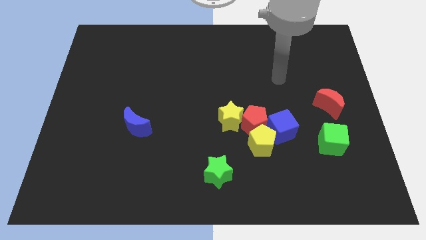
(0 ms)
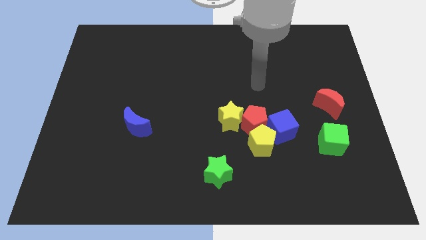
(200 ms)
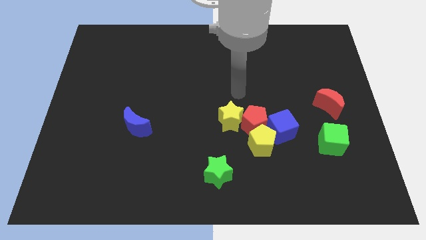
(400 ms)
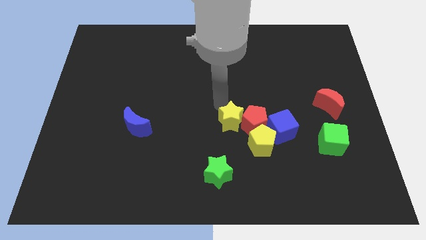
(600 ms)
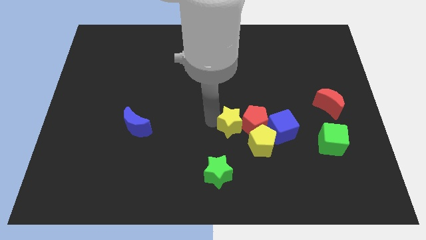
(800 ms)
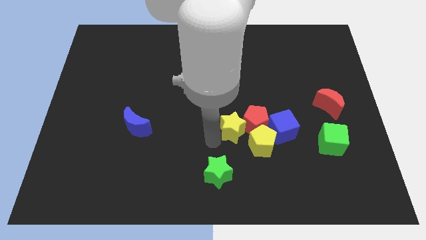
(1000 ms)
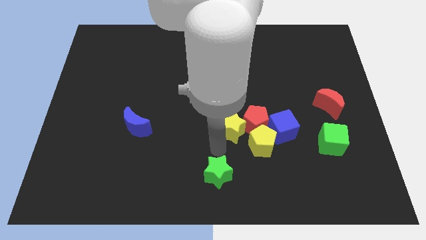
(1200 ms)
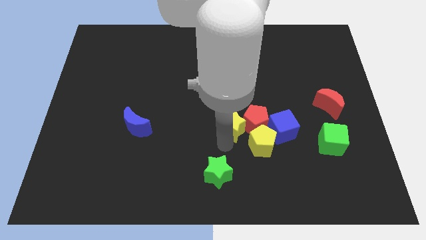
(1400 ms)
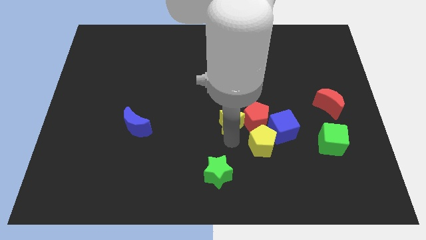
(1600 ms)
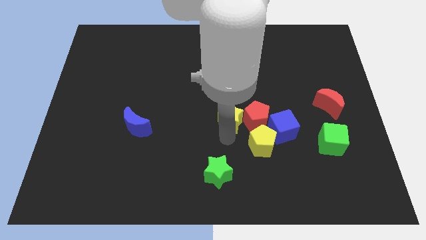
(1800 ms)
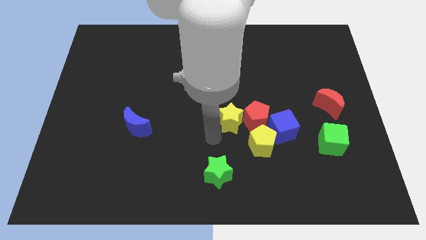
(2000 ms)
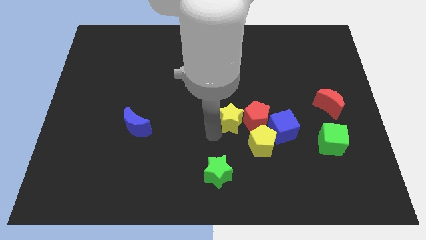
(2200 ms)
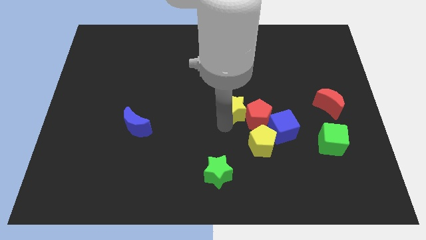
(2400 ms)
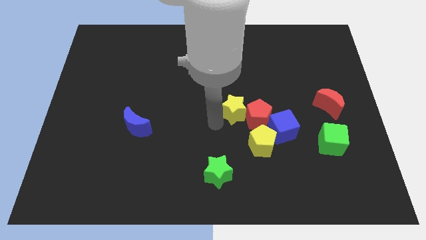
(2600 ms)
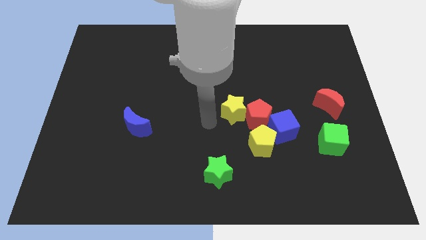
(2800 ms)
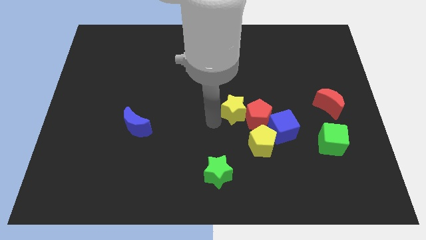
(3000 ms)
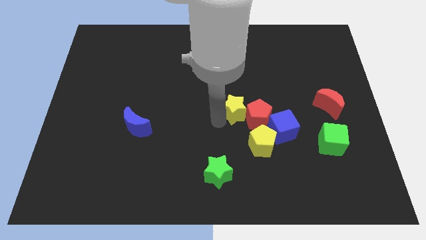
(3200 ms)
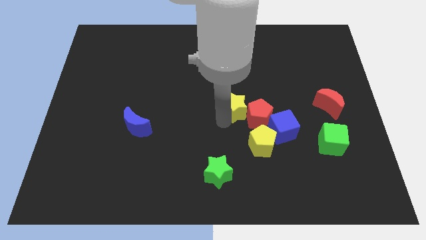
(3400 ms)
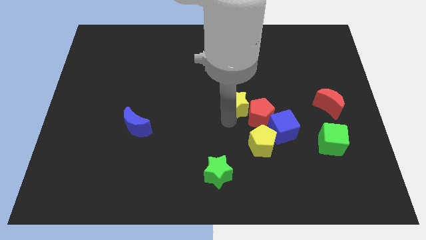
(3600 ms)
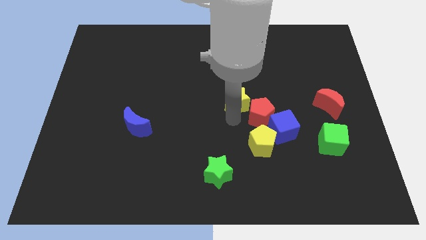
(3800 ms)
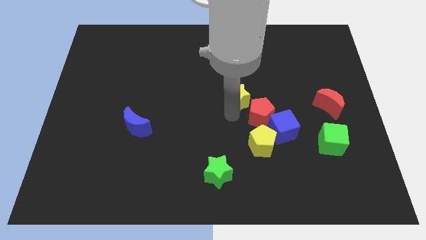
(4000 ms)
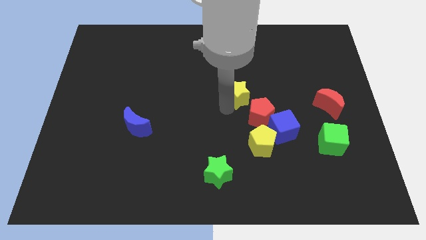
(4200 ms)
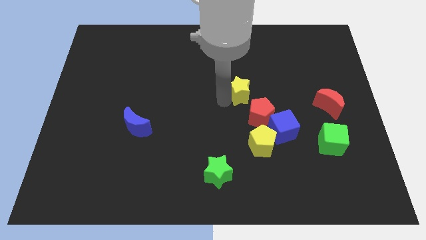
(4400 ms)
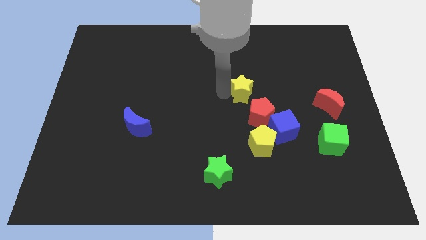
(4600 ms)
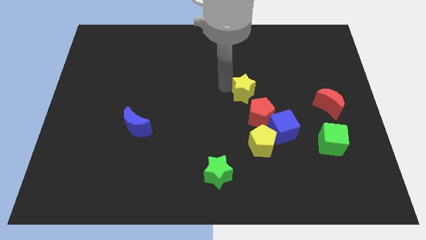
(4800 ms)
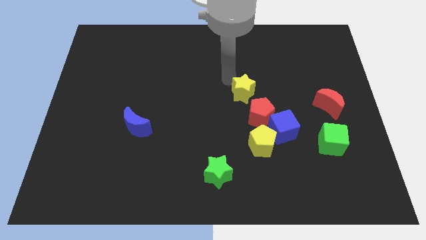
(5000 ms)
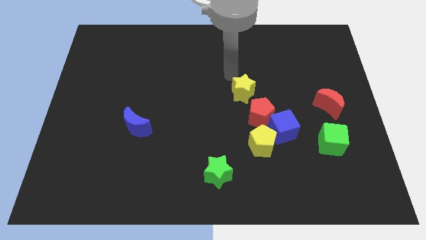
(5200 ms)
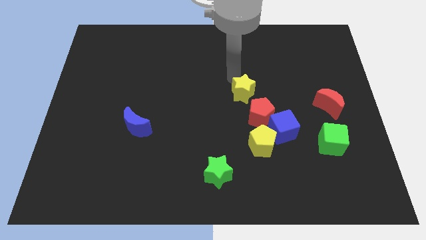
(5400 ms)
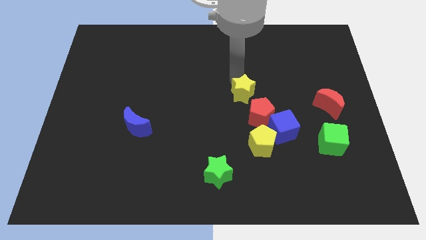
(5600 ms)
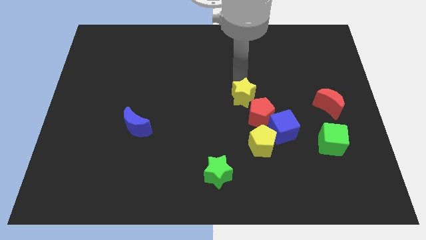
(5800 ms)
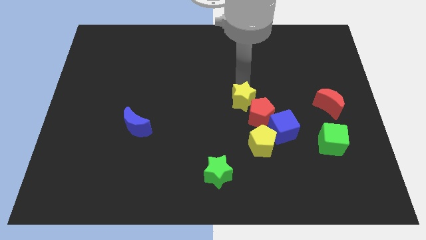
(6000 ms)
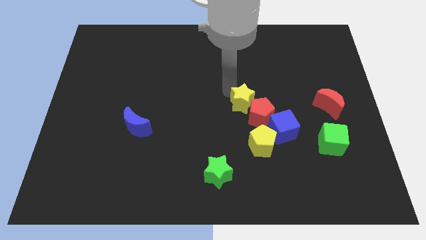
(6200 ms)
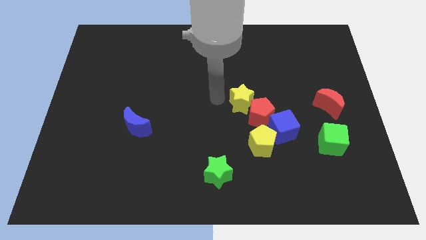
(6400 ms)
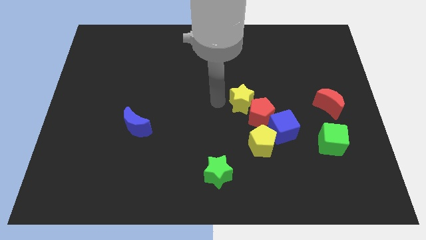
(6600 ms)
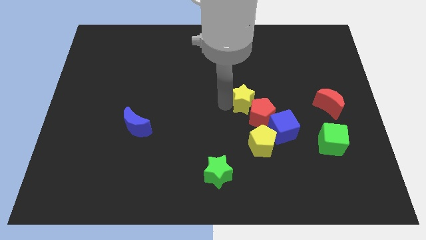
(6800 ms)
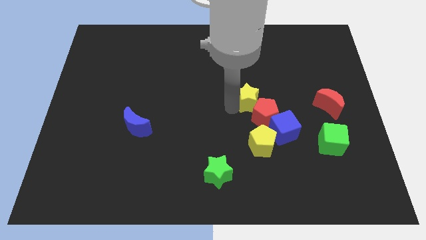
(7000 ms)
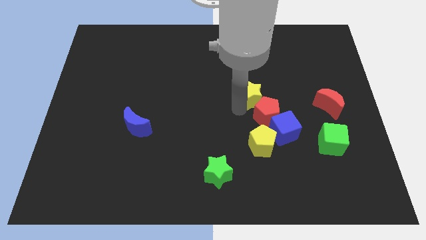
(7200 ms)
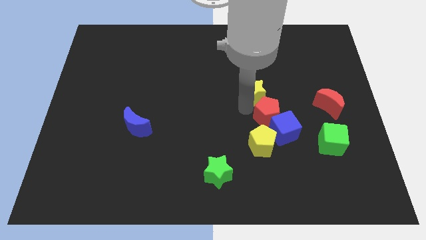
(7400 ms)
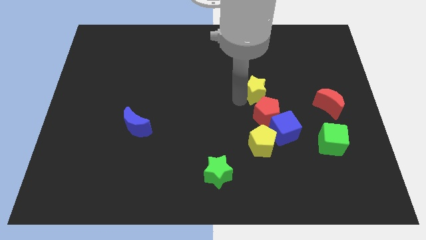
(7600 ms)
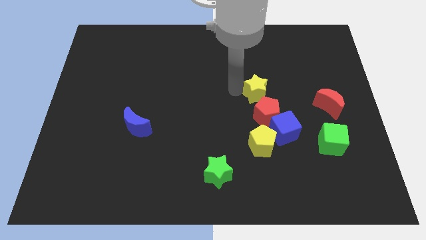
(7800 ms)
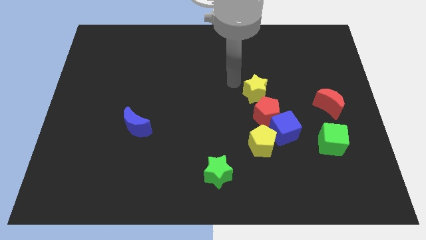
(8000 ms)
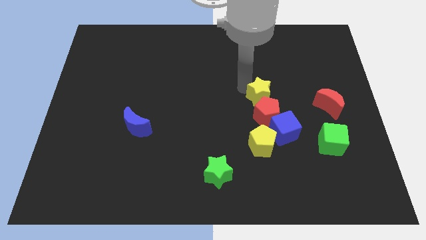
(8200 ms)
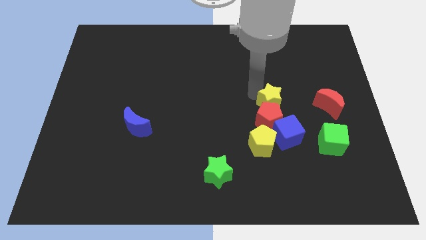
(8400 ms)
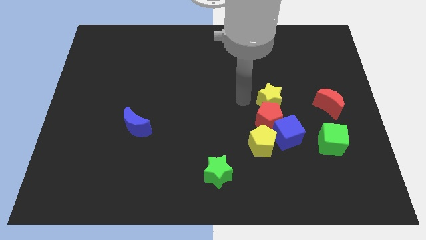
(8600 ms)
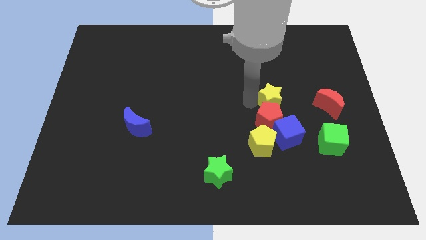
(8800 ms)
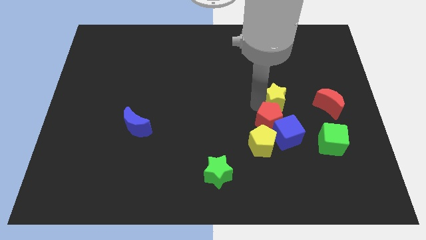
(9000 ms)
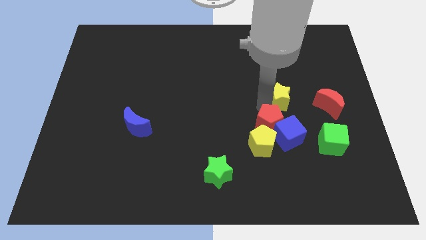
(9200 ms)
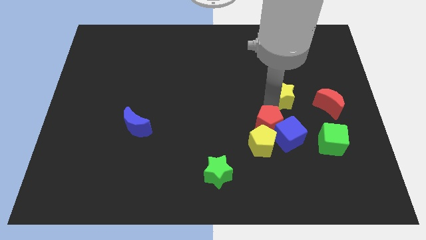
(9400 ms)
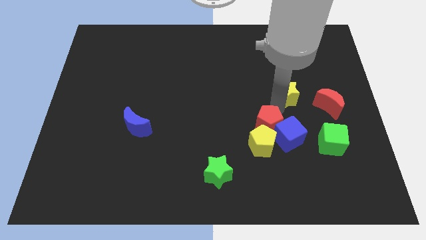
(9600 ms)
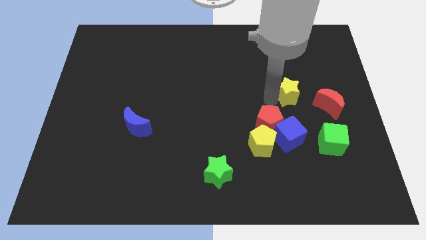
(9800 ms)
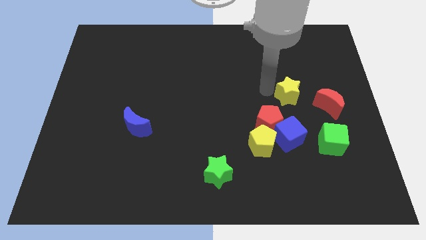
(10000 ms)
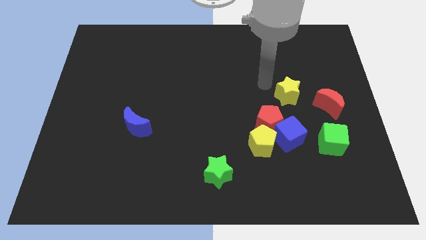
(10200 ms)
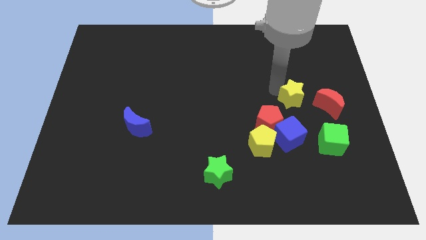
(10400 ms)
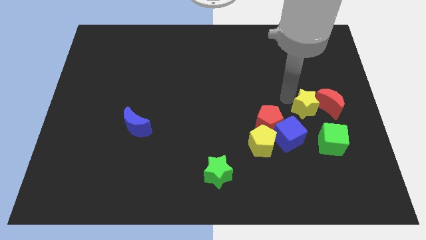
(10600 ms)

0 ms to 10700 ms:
move the yellow star to the red moon
